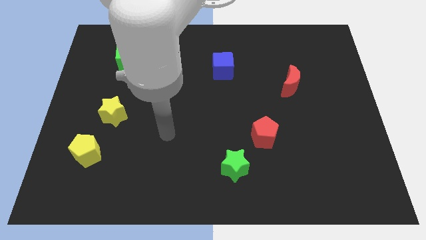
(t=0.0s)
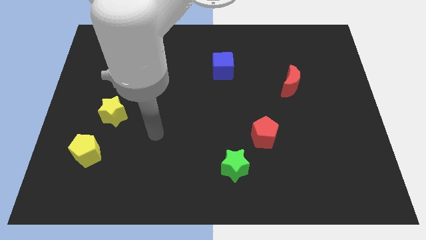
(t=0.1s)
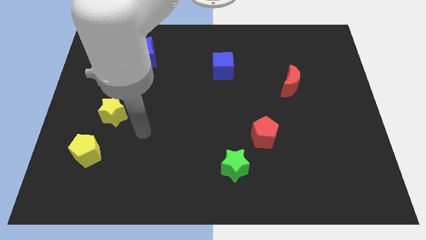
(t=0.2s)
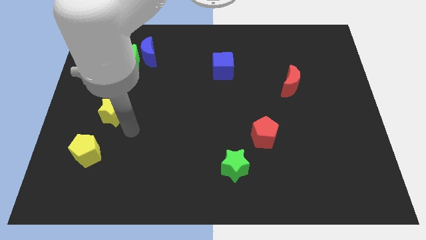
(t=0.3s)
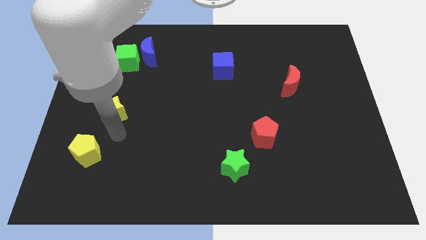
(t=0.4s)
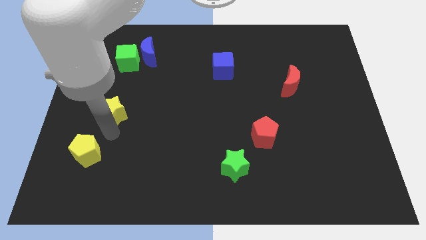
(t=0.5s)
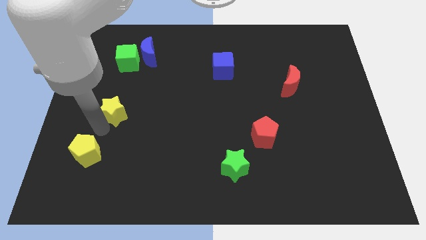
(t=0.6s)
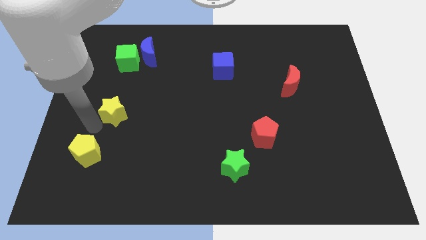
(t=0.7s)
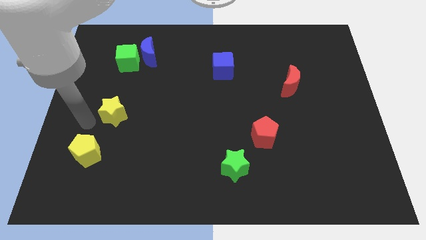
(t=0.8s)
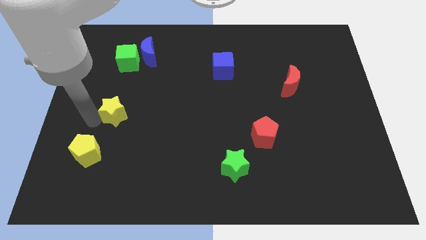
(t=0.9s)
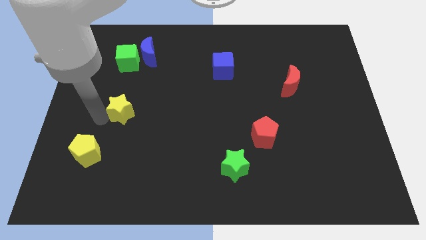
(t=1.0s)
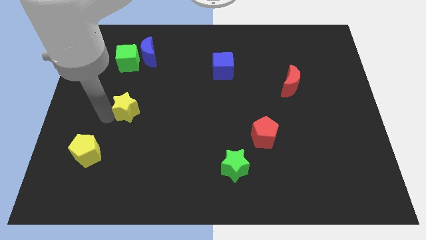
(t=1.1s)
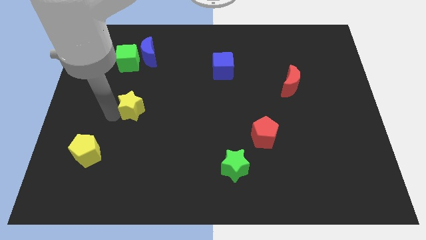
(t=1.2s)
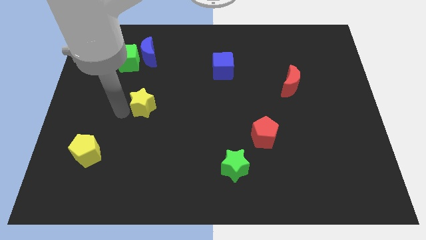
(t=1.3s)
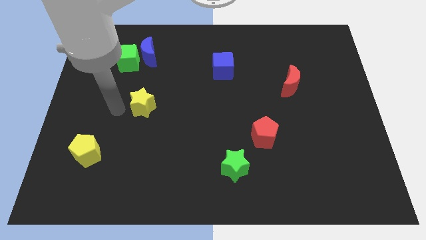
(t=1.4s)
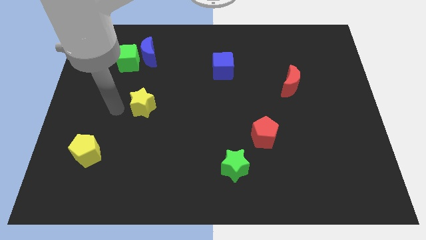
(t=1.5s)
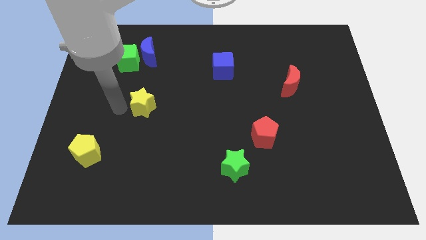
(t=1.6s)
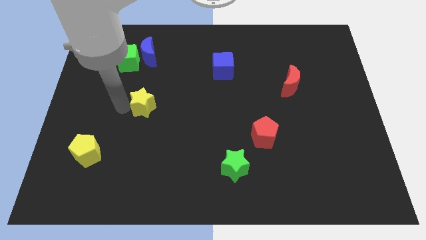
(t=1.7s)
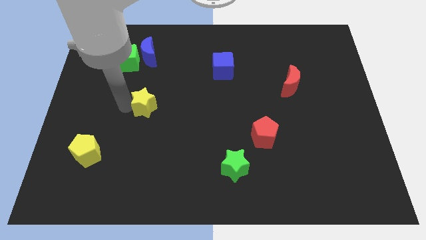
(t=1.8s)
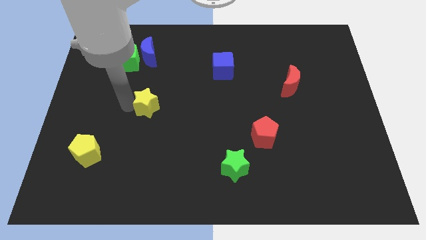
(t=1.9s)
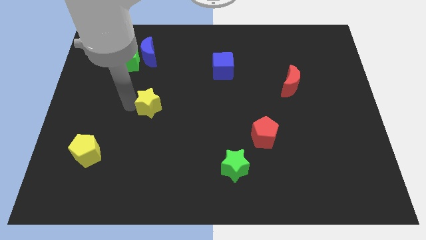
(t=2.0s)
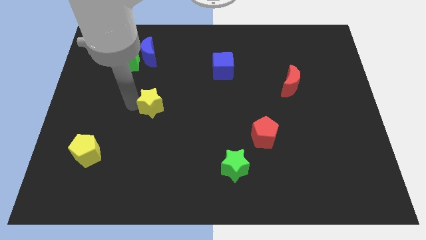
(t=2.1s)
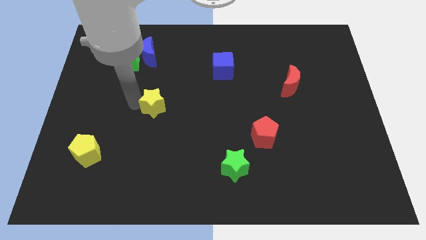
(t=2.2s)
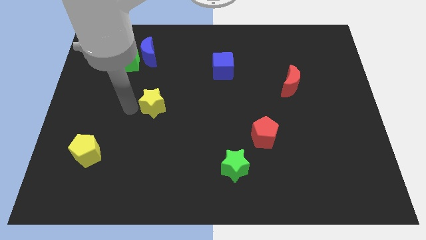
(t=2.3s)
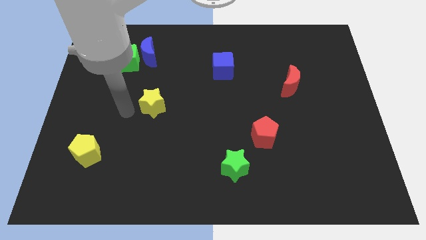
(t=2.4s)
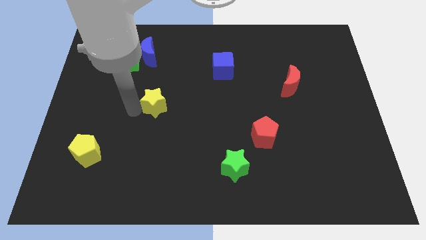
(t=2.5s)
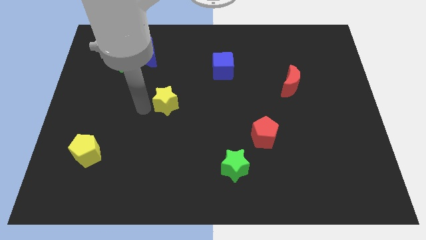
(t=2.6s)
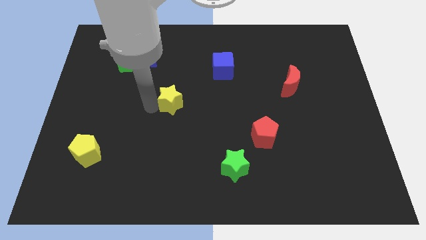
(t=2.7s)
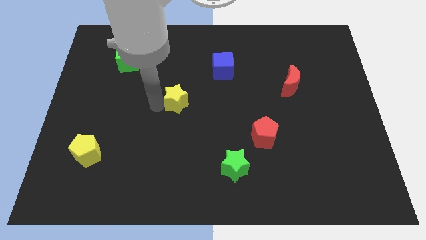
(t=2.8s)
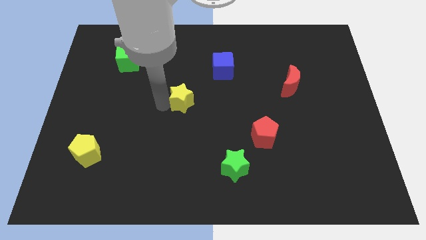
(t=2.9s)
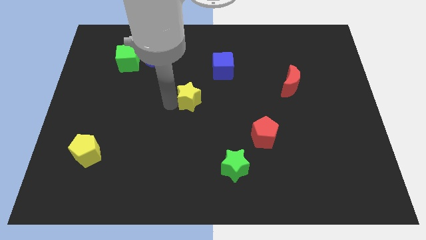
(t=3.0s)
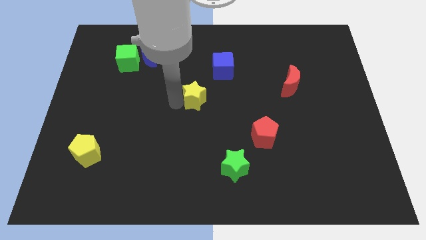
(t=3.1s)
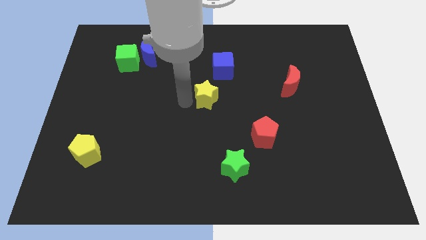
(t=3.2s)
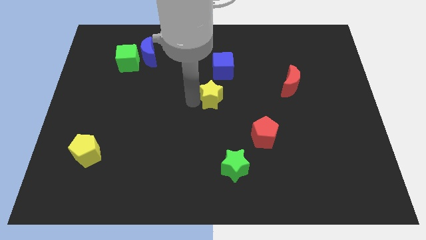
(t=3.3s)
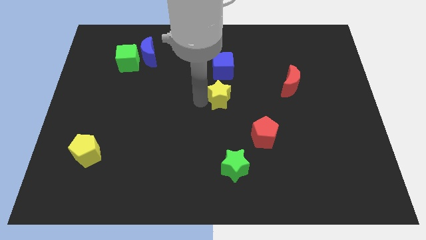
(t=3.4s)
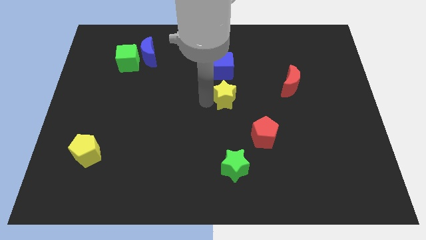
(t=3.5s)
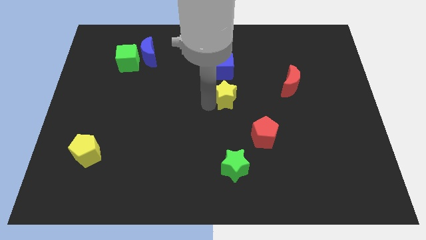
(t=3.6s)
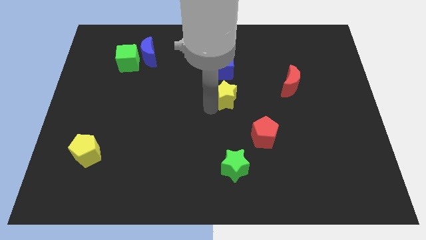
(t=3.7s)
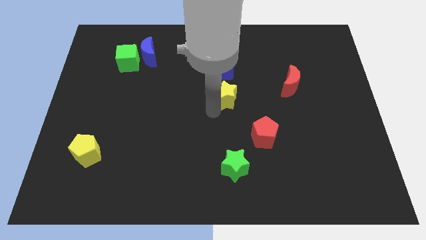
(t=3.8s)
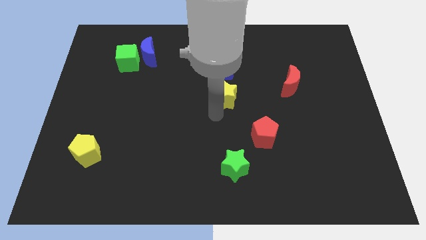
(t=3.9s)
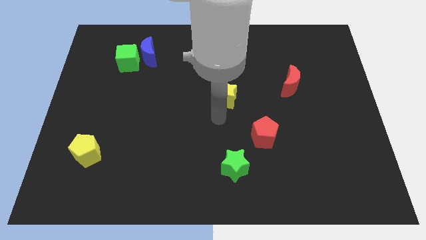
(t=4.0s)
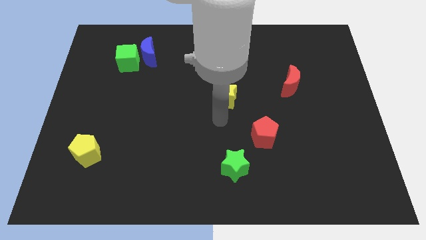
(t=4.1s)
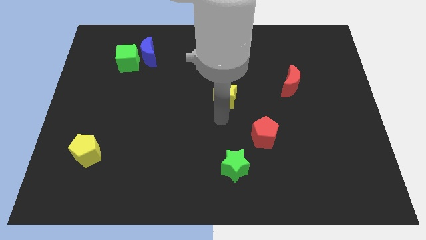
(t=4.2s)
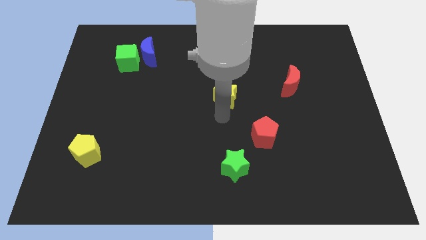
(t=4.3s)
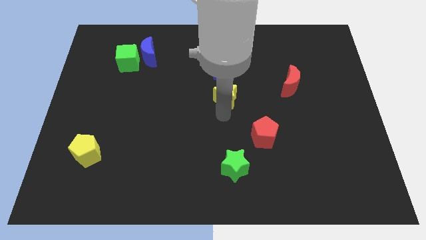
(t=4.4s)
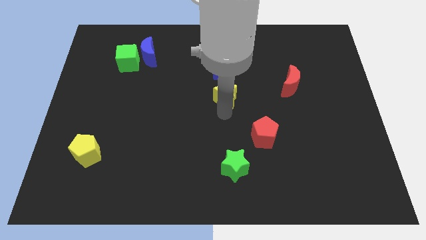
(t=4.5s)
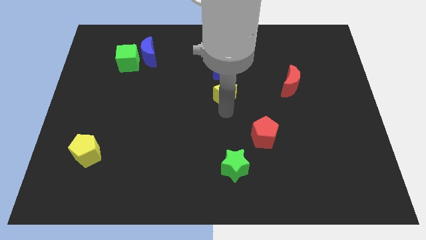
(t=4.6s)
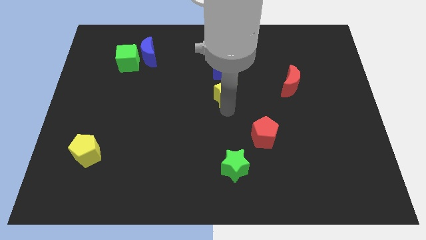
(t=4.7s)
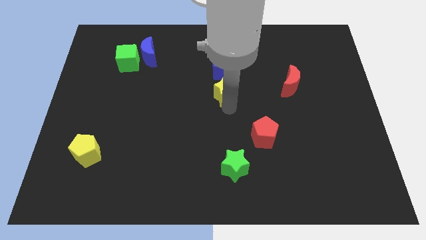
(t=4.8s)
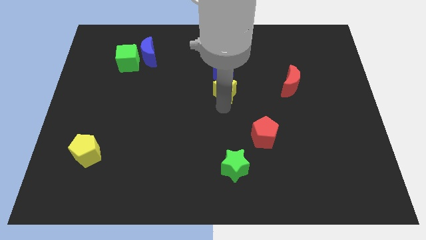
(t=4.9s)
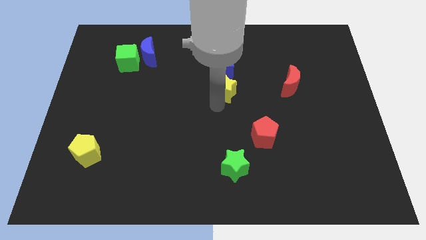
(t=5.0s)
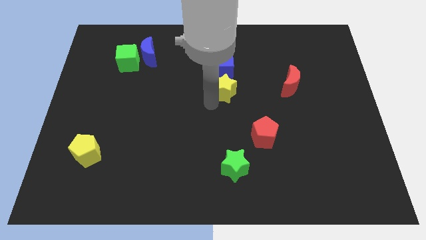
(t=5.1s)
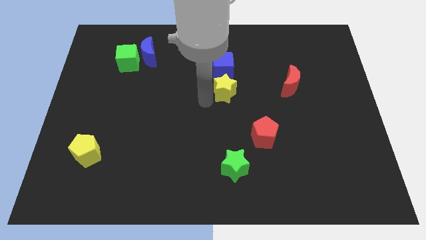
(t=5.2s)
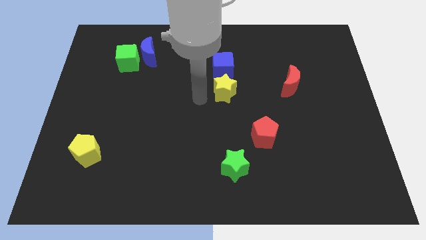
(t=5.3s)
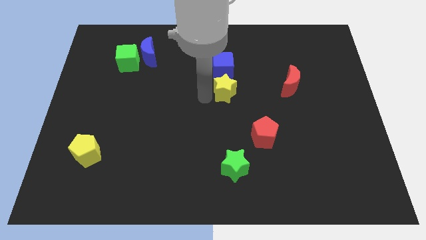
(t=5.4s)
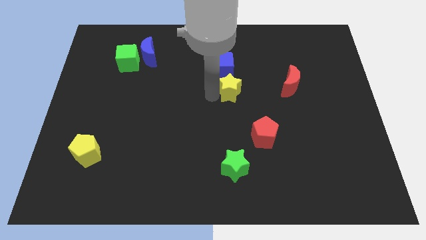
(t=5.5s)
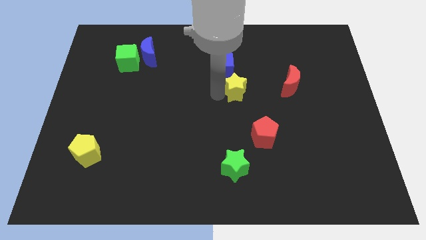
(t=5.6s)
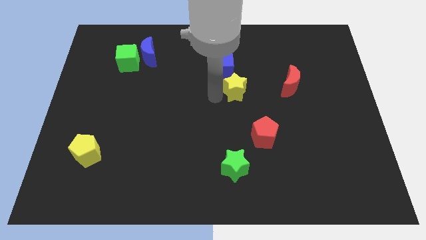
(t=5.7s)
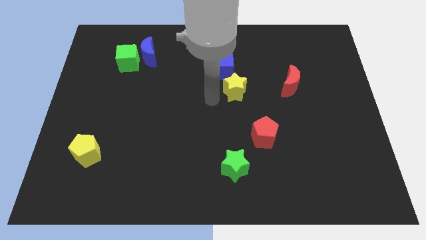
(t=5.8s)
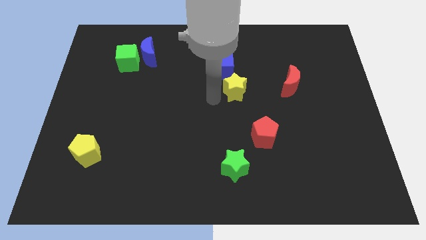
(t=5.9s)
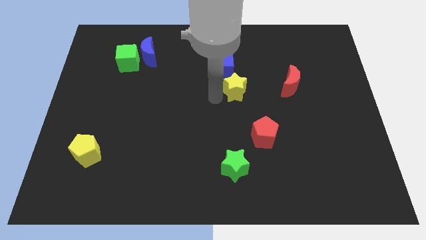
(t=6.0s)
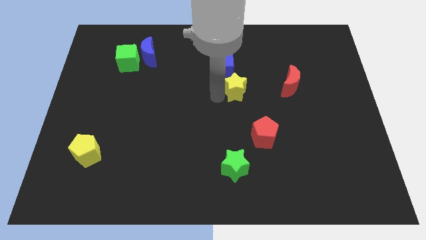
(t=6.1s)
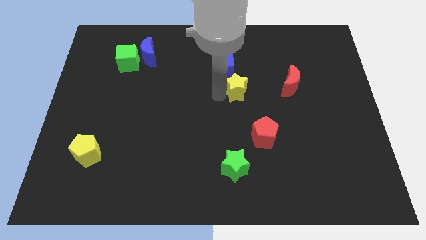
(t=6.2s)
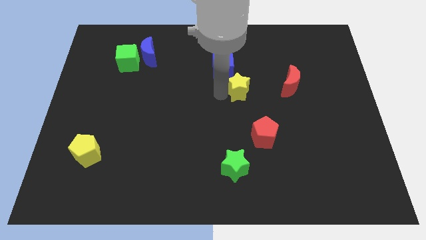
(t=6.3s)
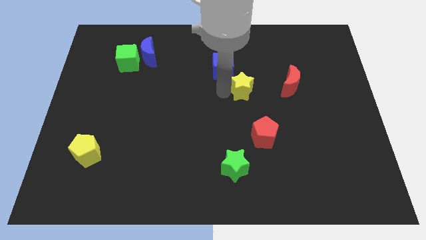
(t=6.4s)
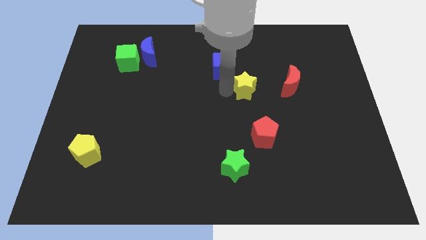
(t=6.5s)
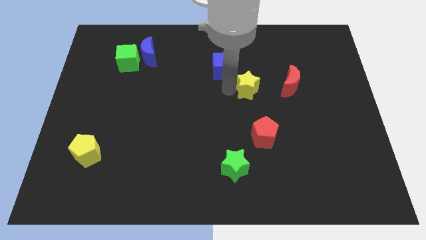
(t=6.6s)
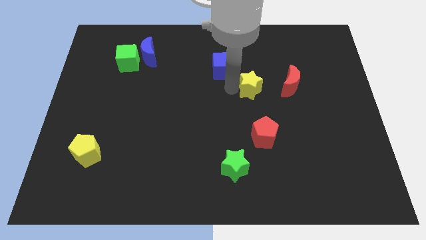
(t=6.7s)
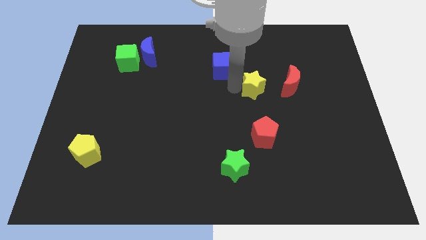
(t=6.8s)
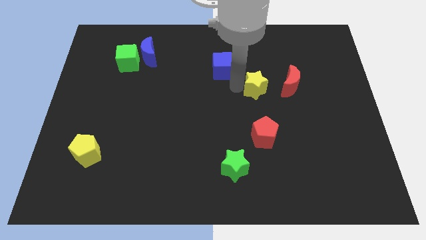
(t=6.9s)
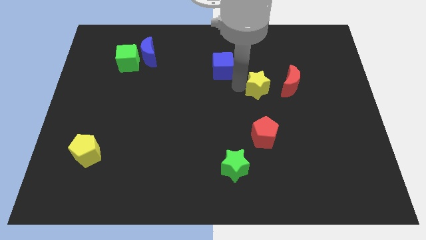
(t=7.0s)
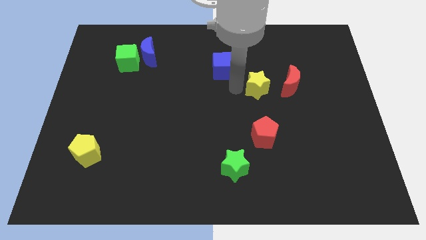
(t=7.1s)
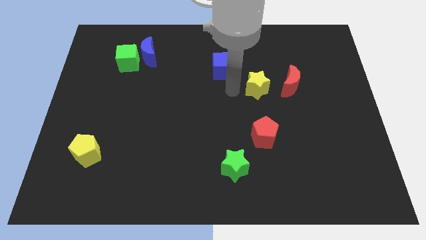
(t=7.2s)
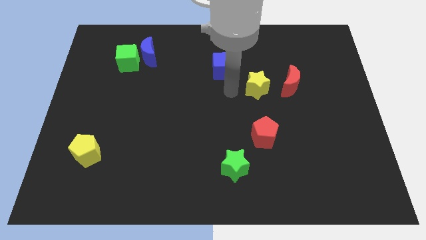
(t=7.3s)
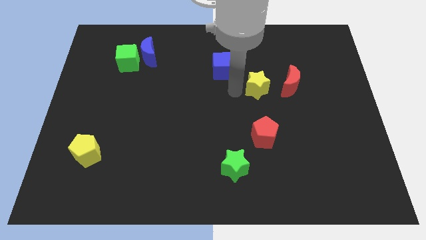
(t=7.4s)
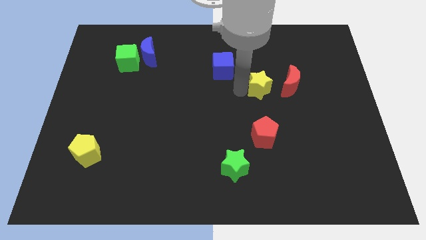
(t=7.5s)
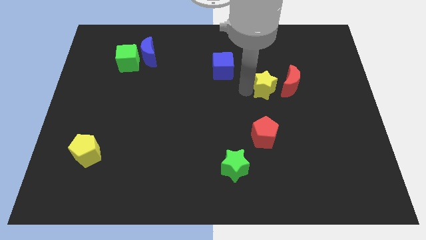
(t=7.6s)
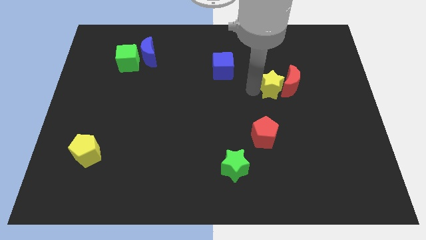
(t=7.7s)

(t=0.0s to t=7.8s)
slide the yellow star towards the red moon
